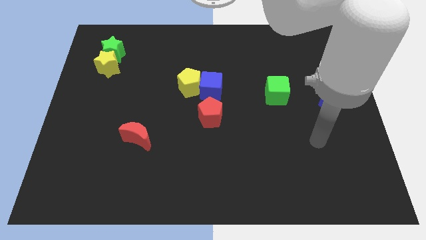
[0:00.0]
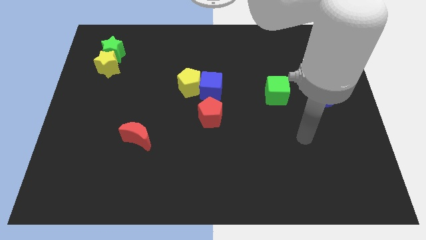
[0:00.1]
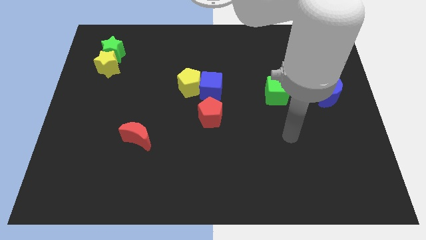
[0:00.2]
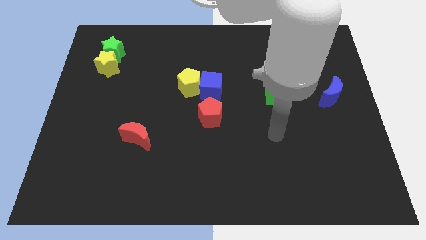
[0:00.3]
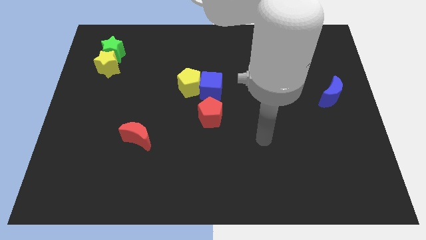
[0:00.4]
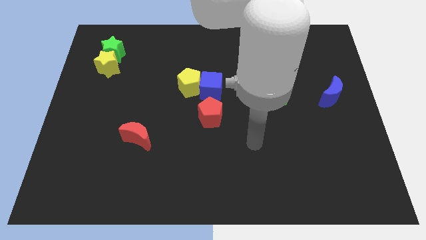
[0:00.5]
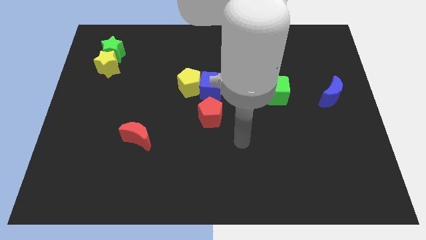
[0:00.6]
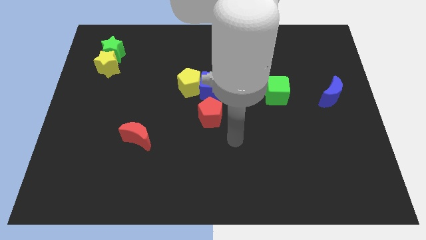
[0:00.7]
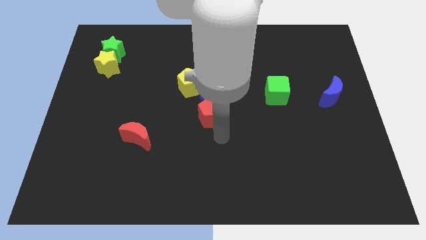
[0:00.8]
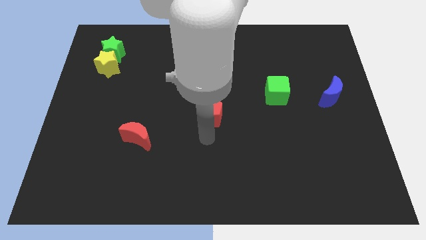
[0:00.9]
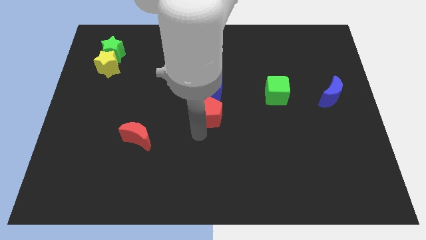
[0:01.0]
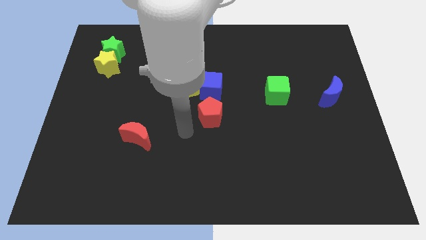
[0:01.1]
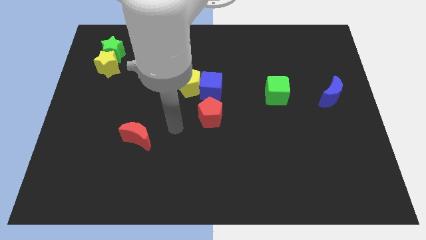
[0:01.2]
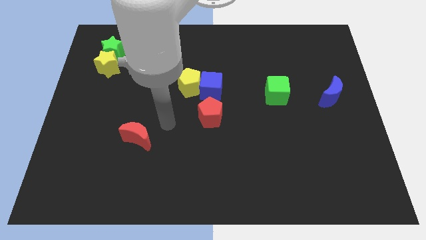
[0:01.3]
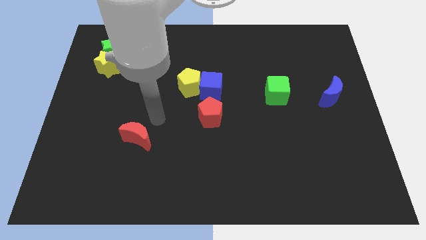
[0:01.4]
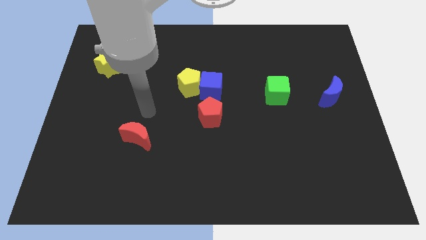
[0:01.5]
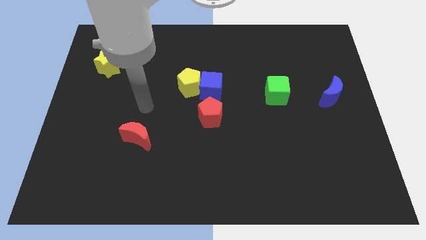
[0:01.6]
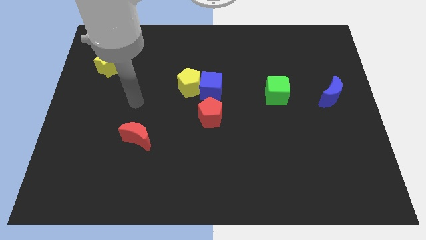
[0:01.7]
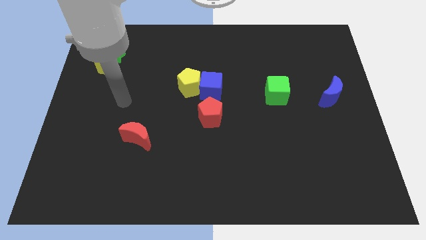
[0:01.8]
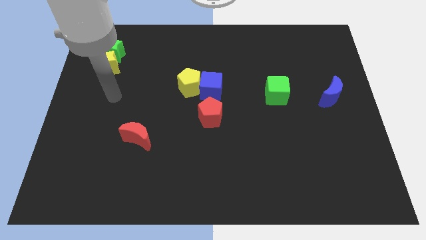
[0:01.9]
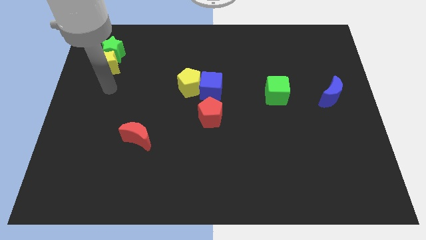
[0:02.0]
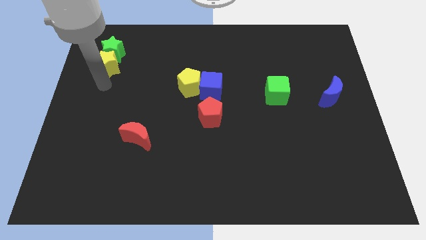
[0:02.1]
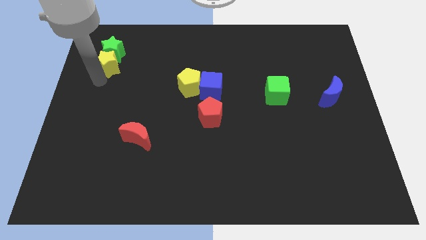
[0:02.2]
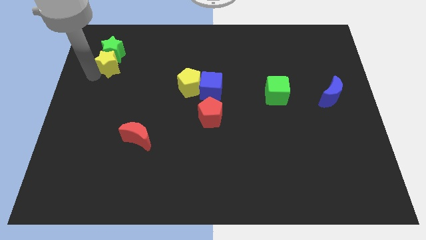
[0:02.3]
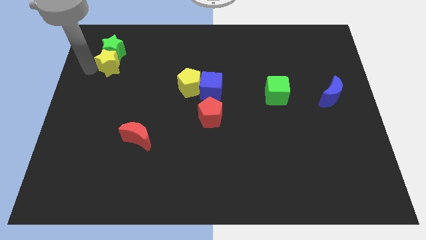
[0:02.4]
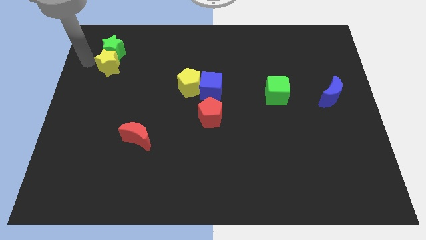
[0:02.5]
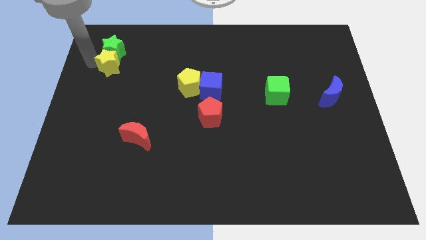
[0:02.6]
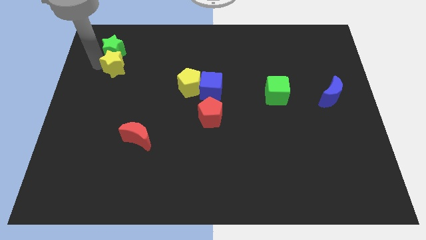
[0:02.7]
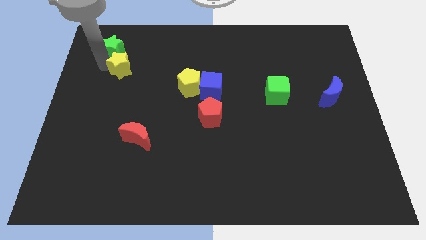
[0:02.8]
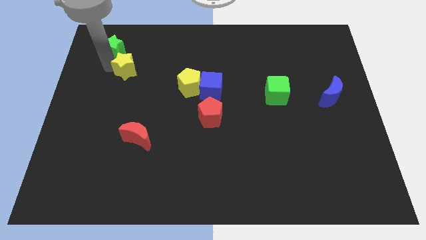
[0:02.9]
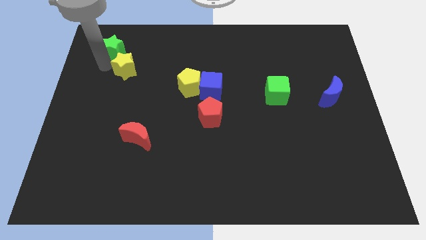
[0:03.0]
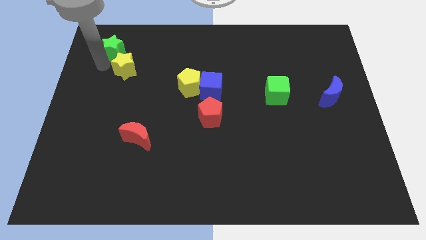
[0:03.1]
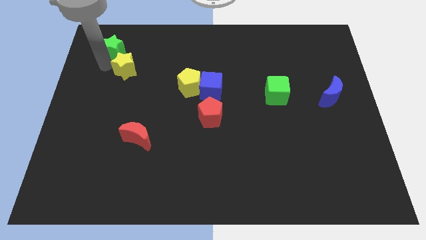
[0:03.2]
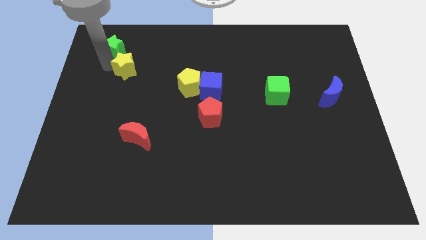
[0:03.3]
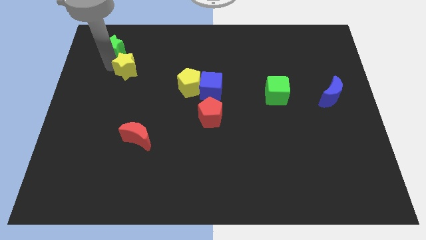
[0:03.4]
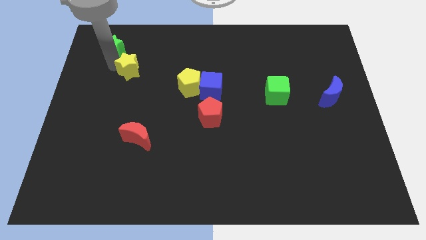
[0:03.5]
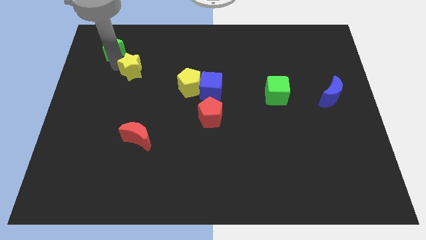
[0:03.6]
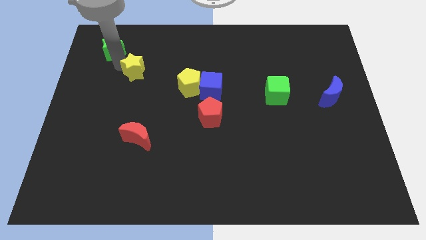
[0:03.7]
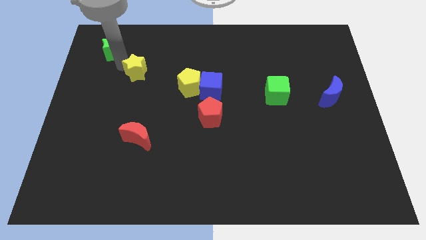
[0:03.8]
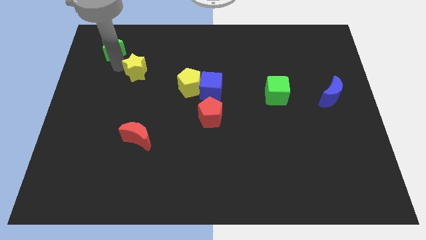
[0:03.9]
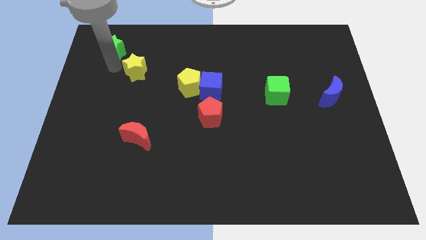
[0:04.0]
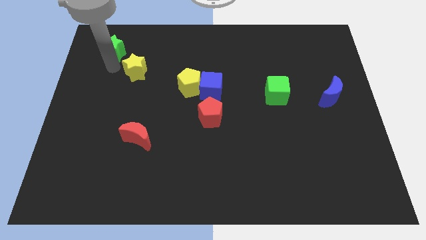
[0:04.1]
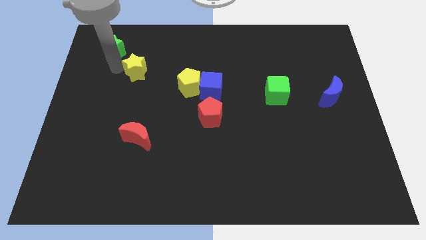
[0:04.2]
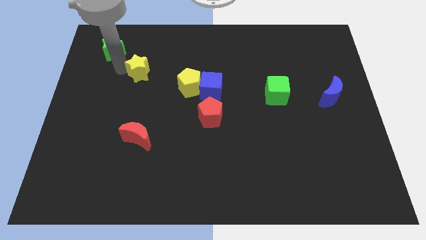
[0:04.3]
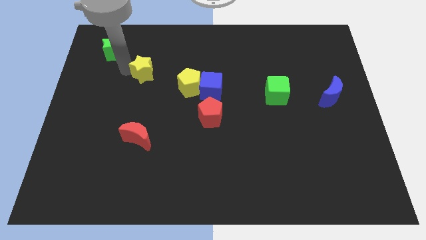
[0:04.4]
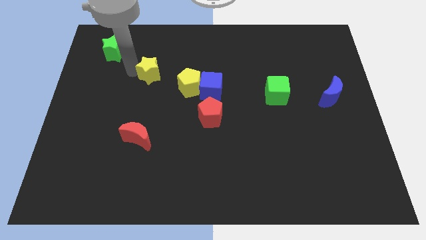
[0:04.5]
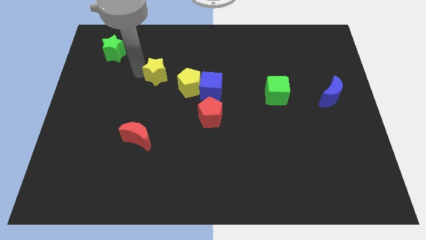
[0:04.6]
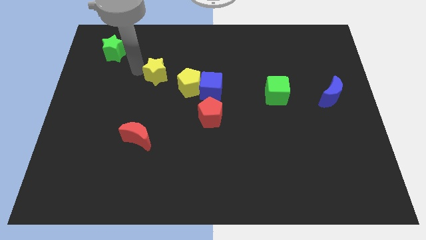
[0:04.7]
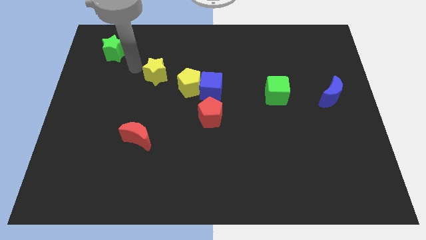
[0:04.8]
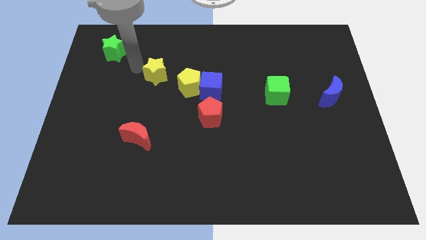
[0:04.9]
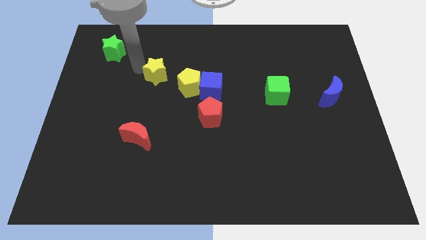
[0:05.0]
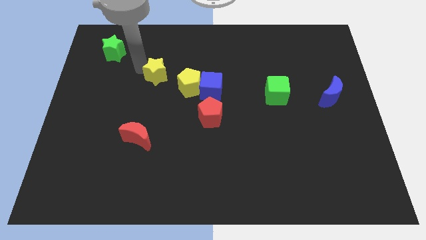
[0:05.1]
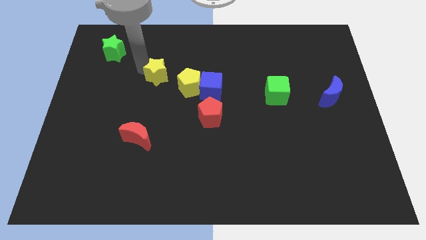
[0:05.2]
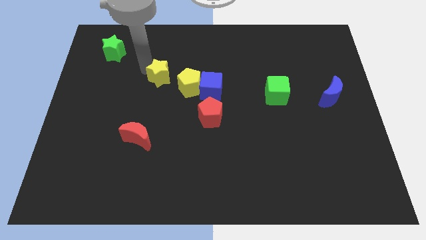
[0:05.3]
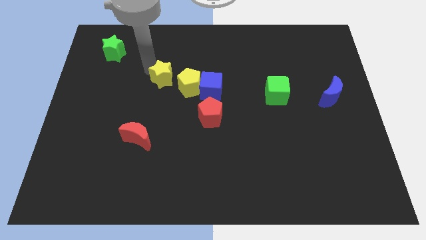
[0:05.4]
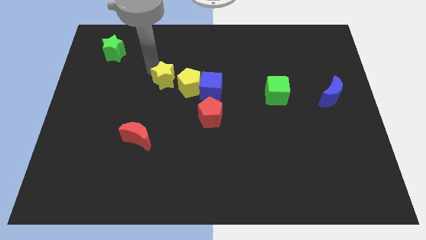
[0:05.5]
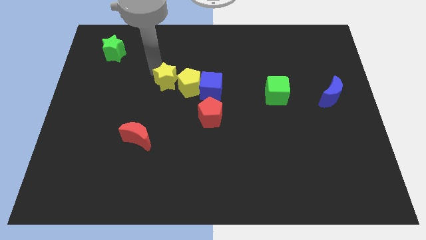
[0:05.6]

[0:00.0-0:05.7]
push the yellow star to the yellow pentagon
